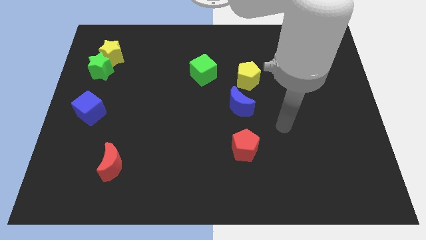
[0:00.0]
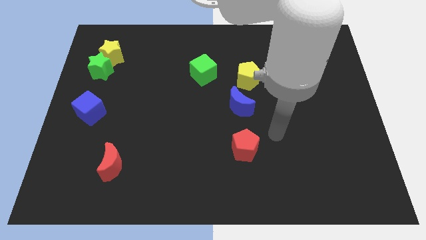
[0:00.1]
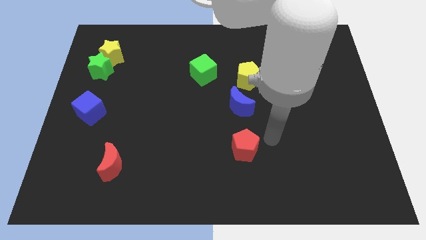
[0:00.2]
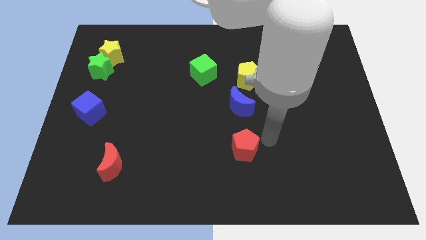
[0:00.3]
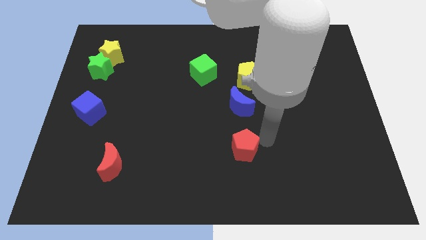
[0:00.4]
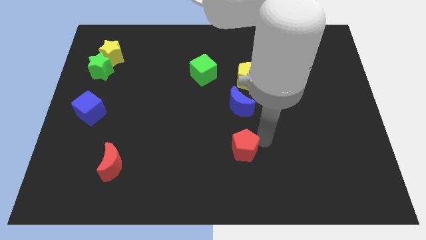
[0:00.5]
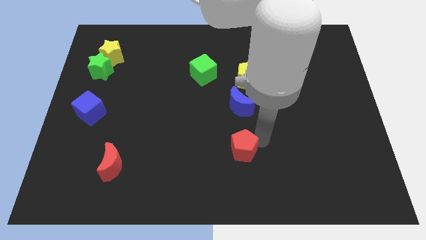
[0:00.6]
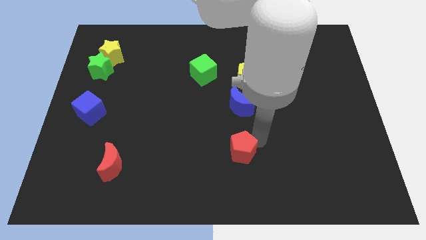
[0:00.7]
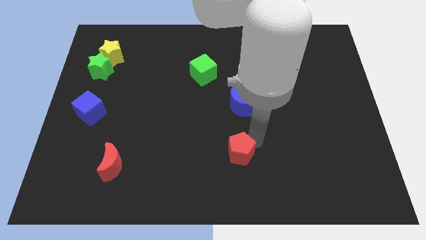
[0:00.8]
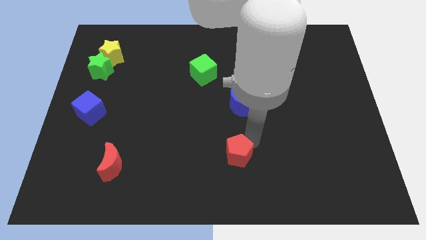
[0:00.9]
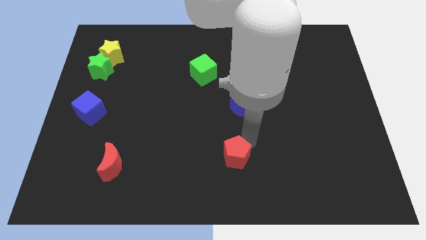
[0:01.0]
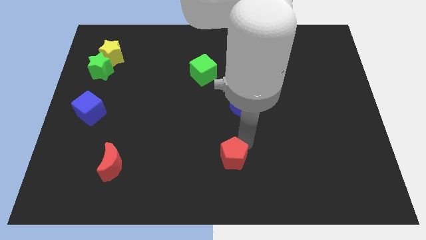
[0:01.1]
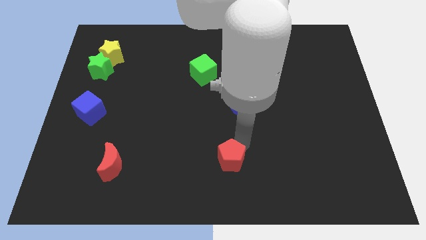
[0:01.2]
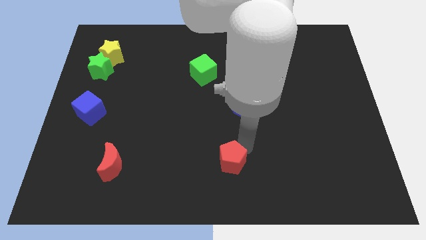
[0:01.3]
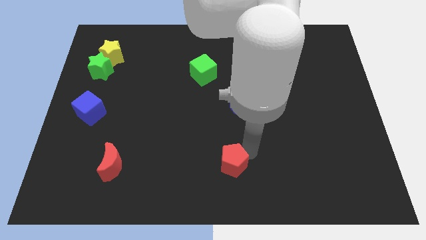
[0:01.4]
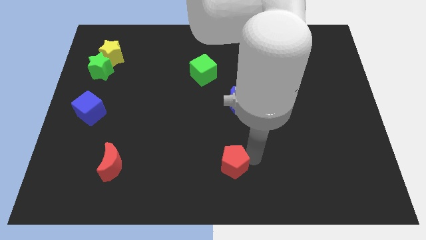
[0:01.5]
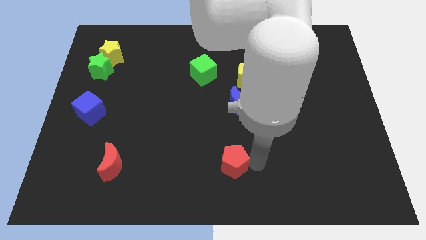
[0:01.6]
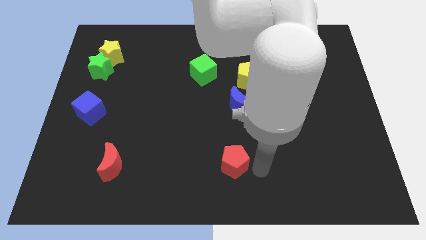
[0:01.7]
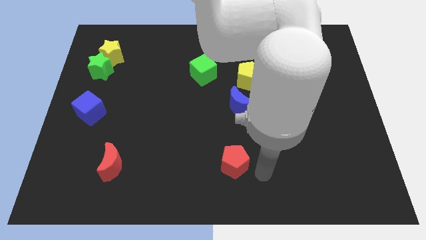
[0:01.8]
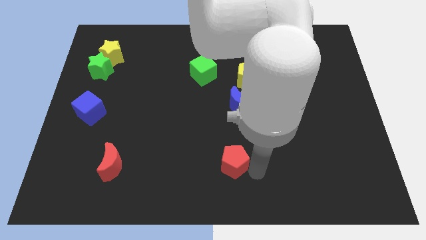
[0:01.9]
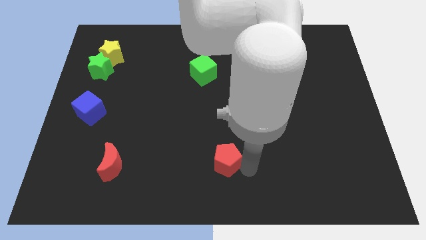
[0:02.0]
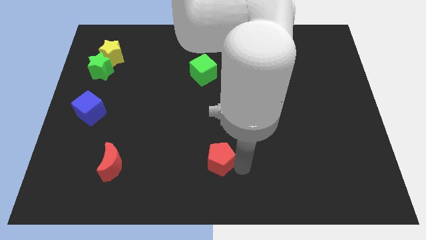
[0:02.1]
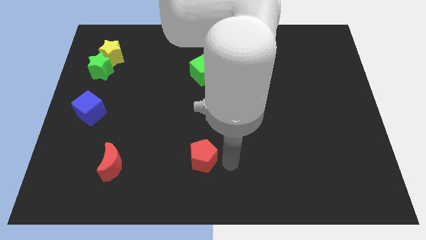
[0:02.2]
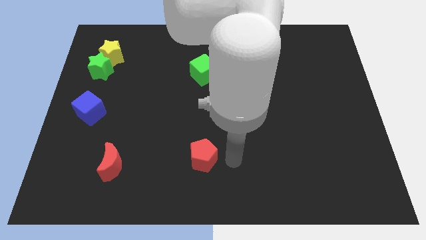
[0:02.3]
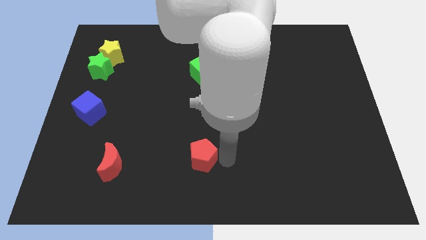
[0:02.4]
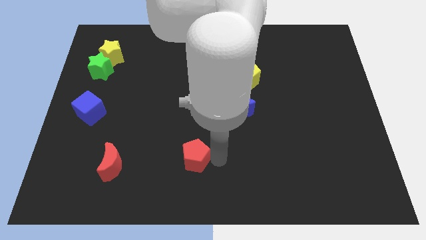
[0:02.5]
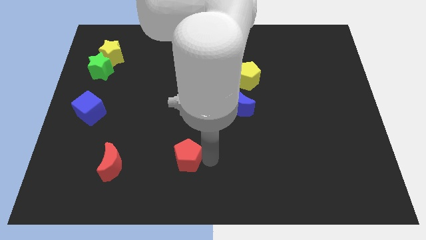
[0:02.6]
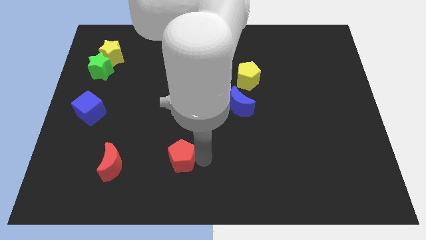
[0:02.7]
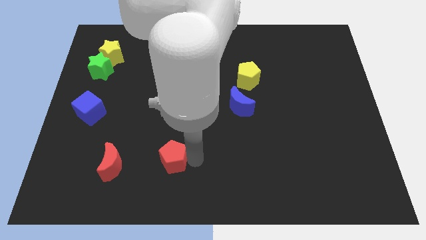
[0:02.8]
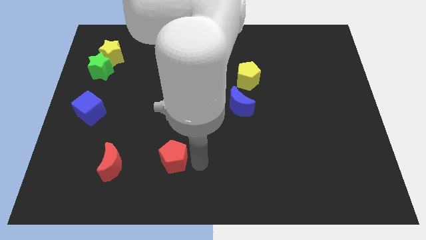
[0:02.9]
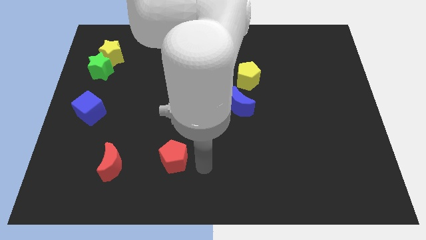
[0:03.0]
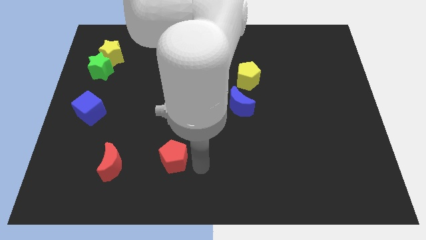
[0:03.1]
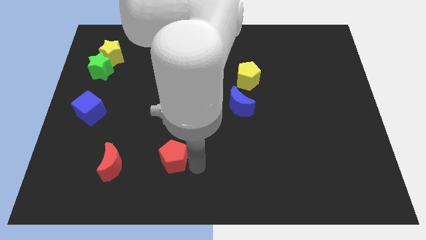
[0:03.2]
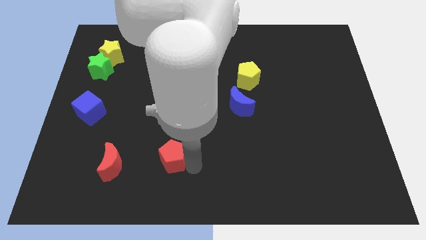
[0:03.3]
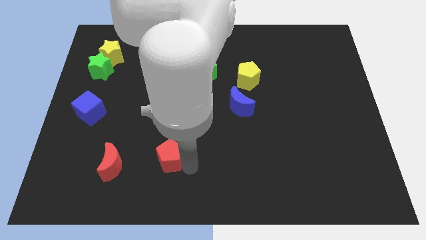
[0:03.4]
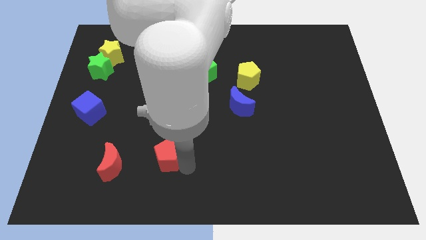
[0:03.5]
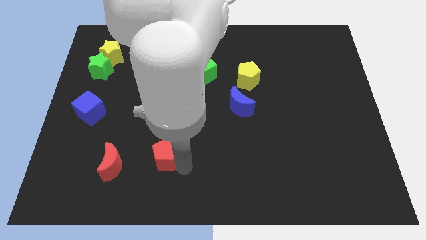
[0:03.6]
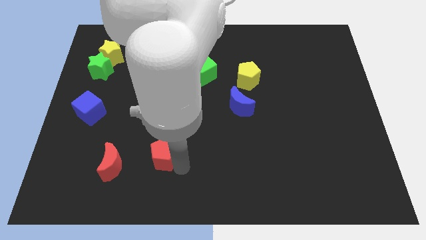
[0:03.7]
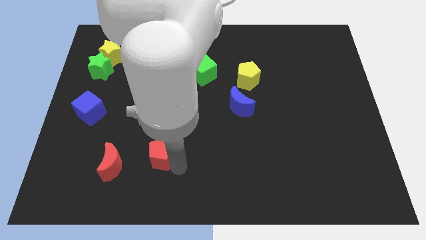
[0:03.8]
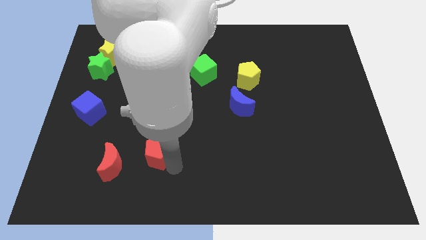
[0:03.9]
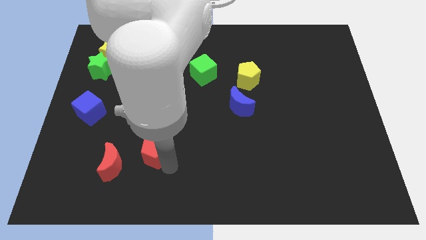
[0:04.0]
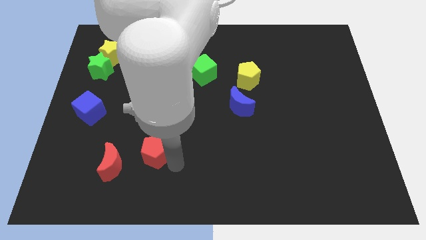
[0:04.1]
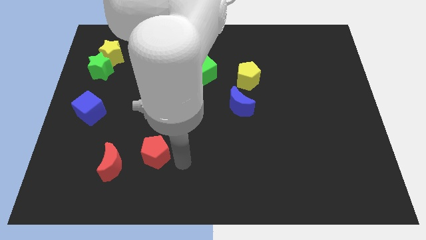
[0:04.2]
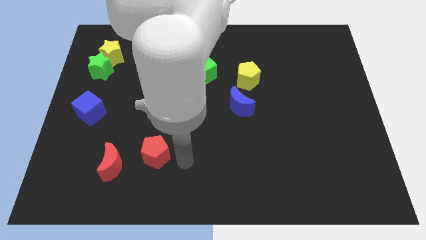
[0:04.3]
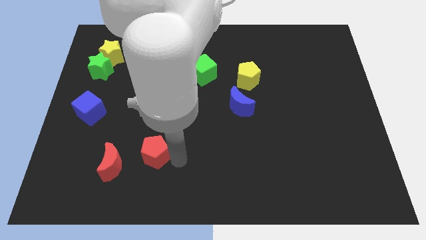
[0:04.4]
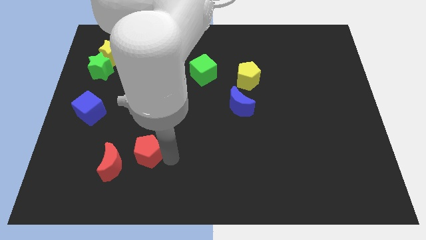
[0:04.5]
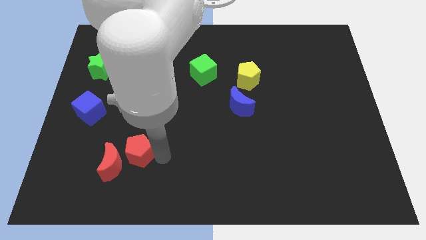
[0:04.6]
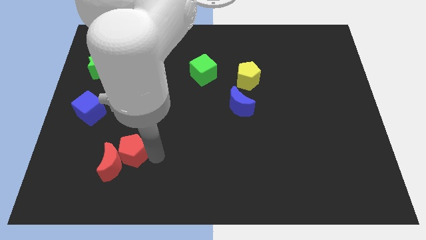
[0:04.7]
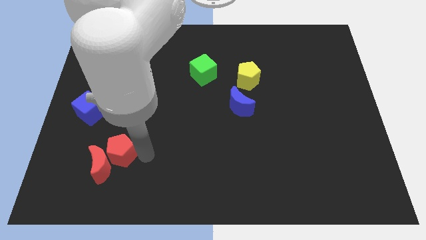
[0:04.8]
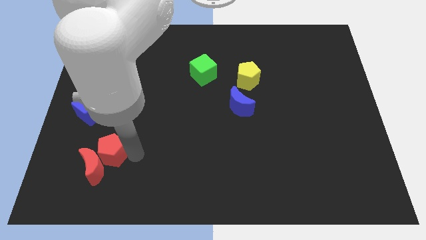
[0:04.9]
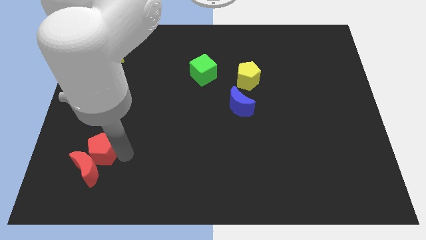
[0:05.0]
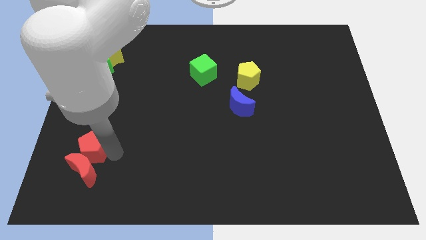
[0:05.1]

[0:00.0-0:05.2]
push the red pentagon to the top left side of the red moon

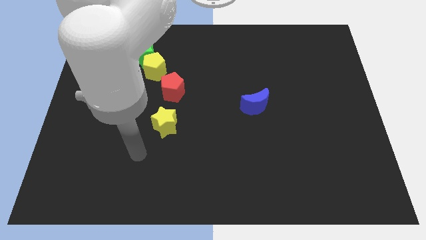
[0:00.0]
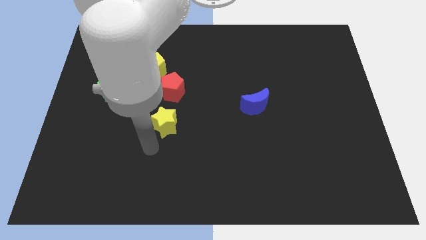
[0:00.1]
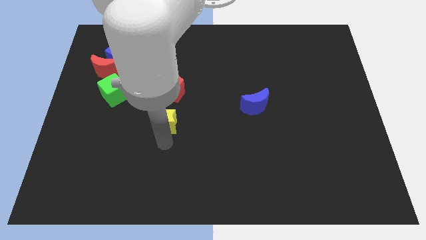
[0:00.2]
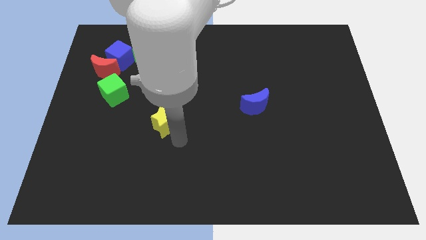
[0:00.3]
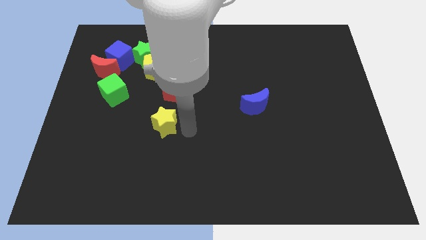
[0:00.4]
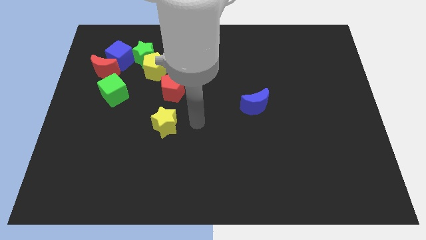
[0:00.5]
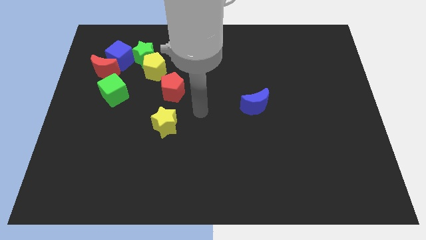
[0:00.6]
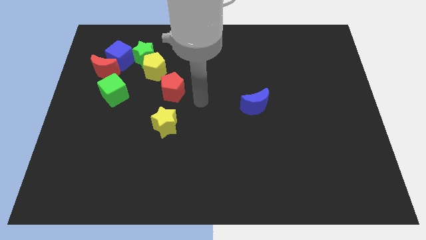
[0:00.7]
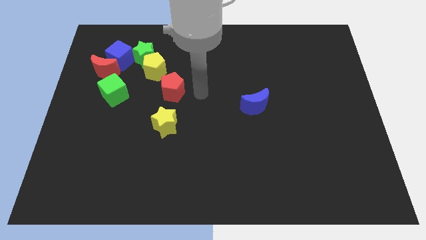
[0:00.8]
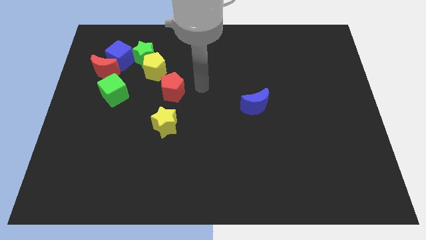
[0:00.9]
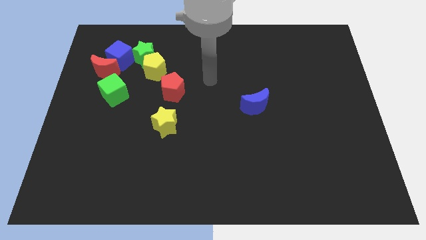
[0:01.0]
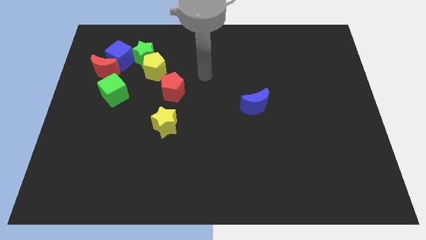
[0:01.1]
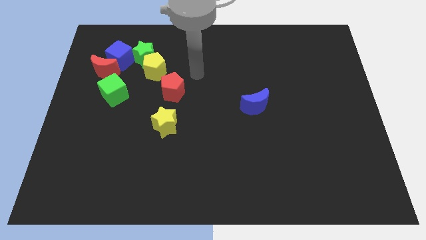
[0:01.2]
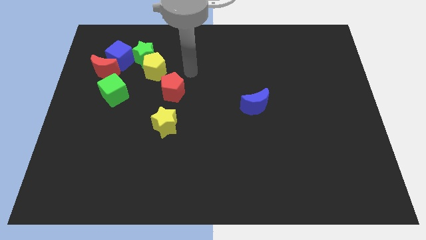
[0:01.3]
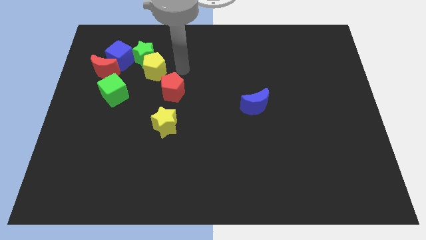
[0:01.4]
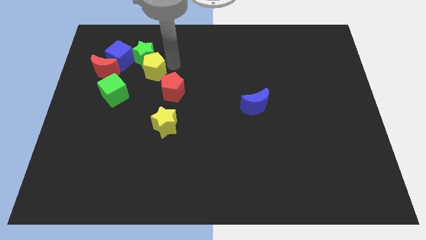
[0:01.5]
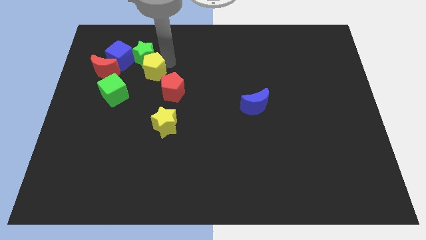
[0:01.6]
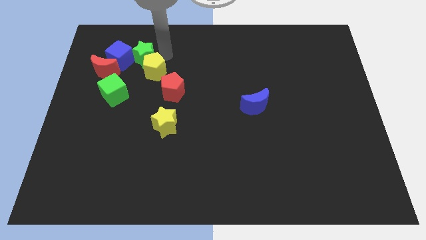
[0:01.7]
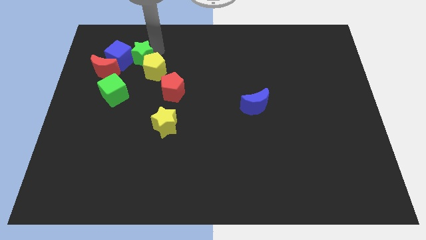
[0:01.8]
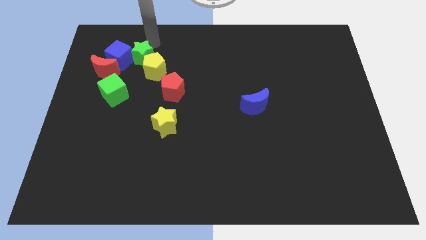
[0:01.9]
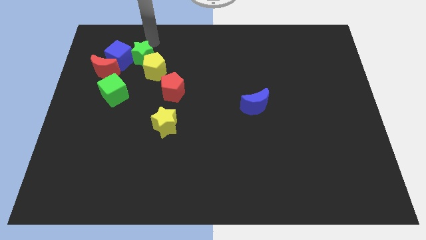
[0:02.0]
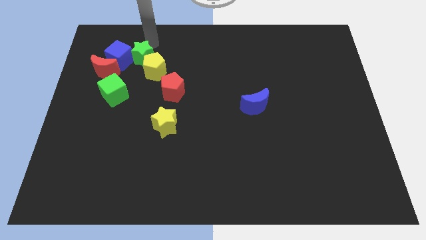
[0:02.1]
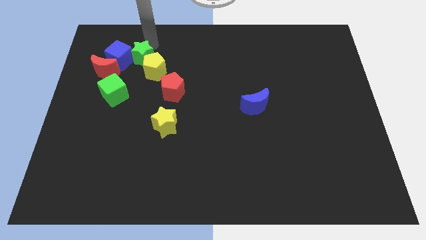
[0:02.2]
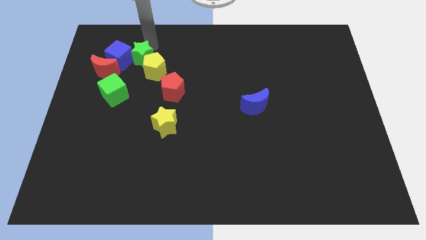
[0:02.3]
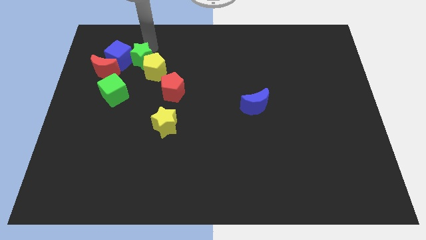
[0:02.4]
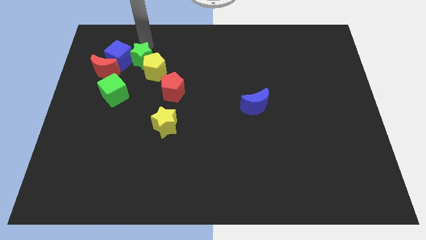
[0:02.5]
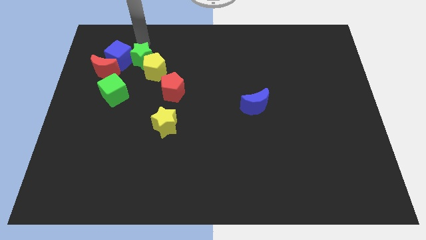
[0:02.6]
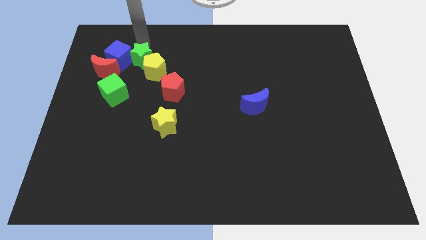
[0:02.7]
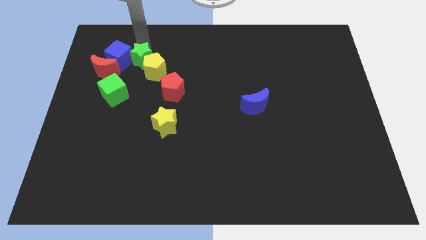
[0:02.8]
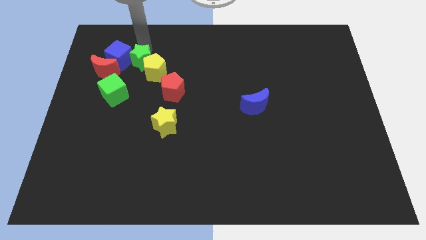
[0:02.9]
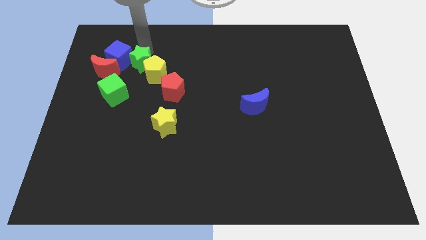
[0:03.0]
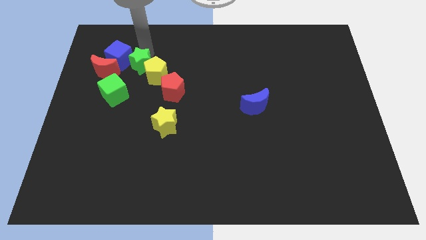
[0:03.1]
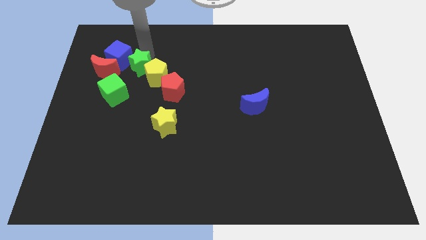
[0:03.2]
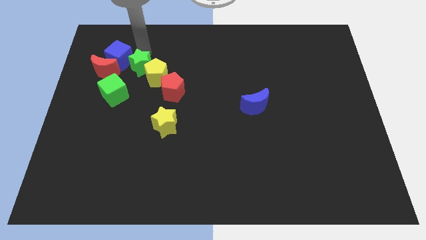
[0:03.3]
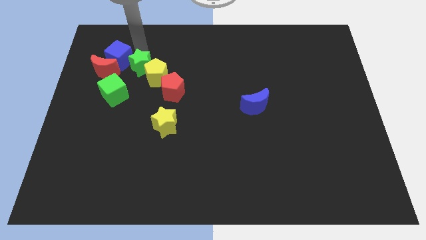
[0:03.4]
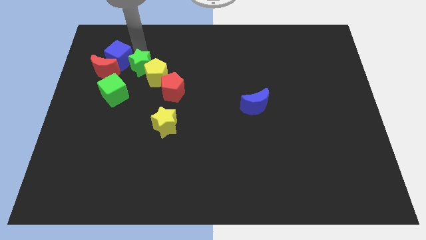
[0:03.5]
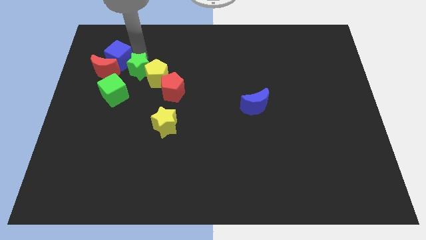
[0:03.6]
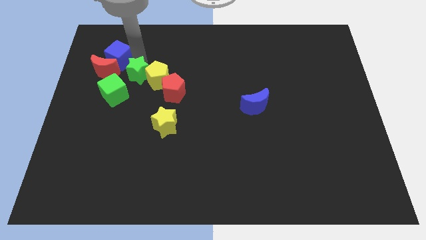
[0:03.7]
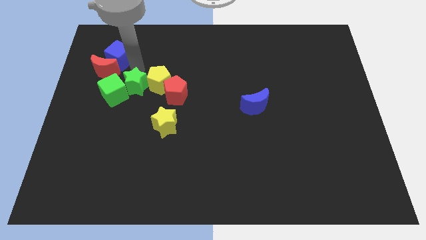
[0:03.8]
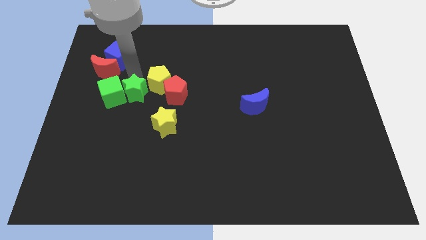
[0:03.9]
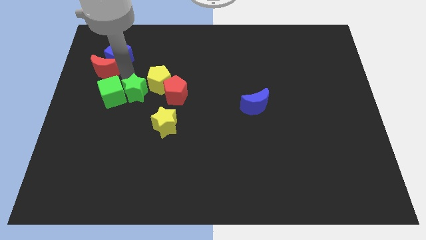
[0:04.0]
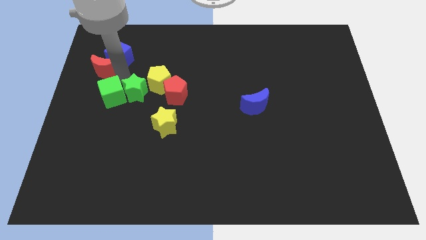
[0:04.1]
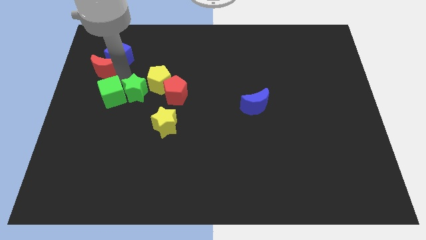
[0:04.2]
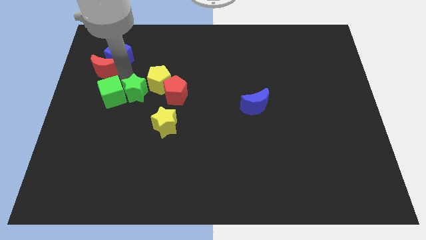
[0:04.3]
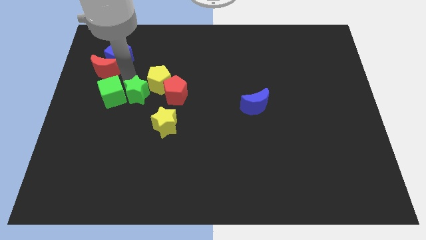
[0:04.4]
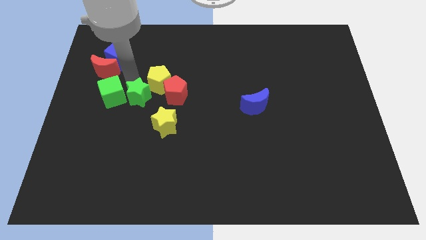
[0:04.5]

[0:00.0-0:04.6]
push the green star to the bottom of the yellow pentagon
